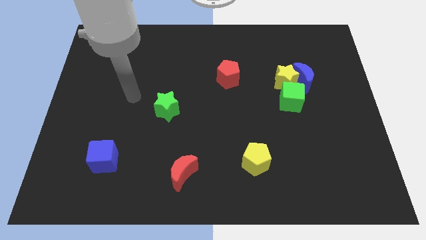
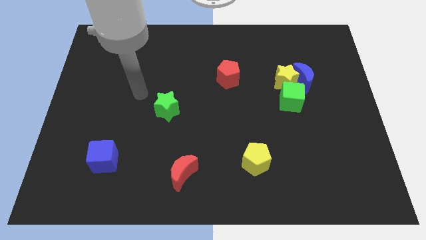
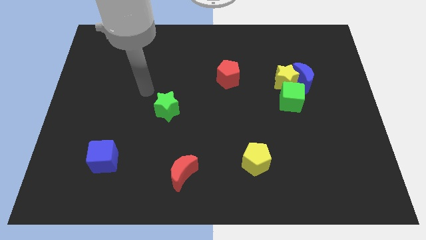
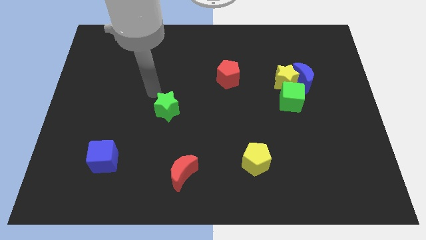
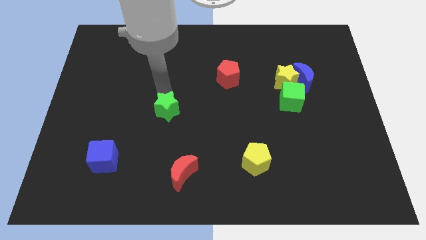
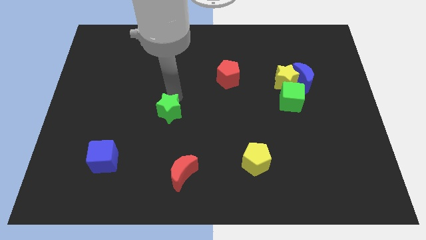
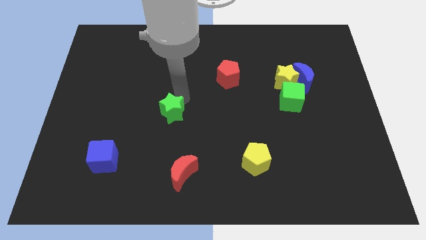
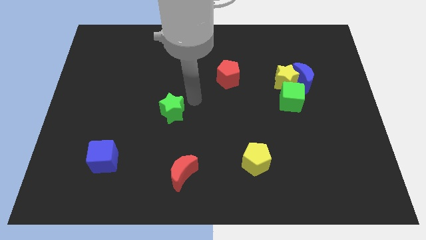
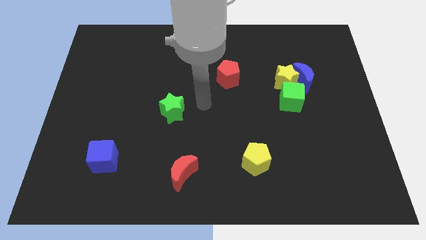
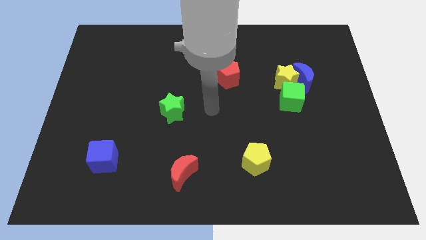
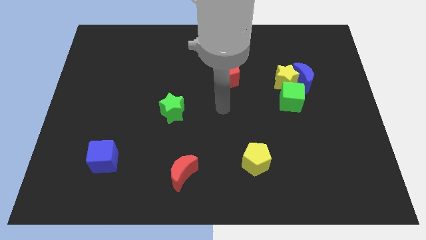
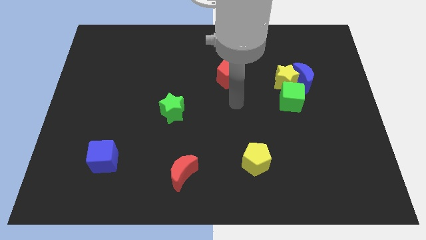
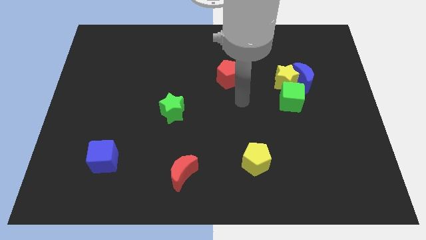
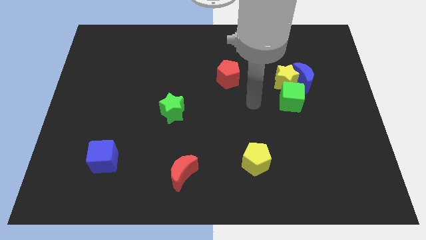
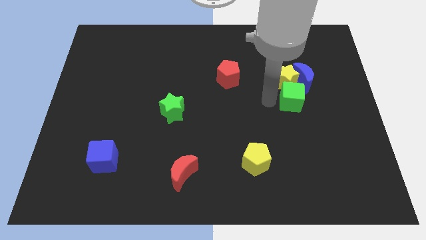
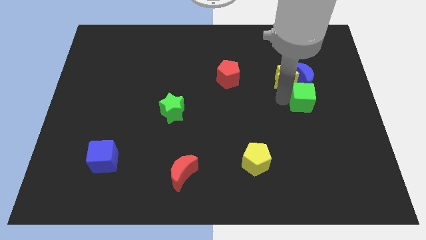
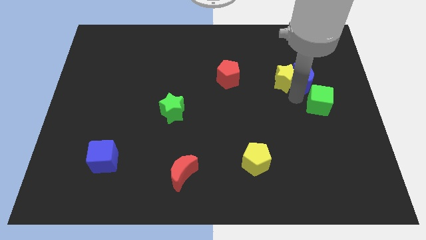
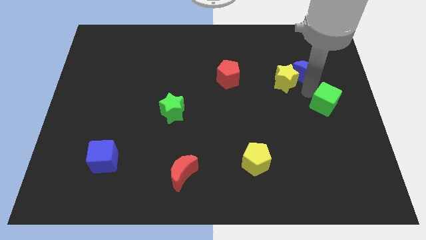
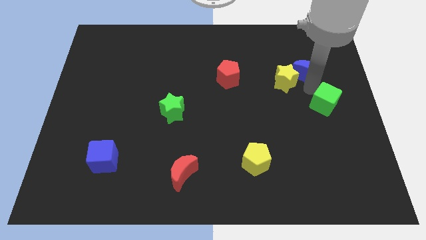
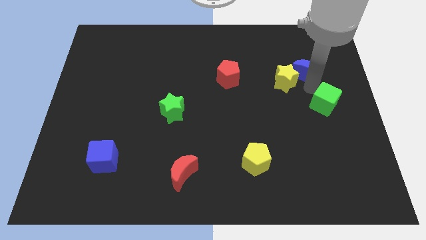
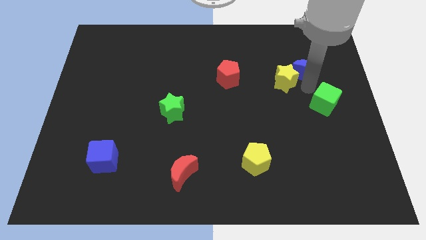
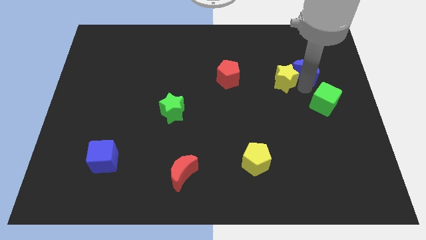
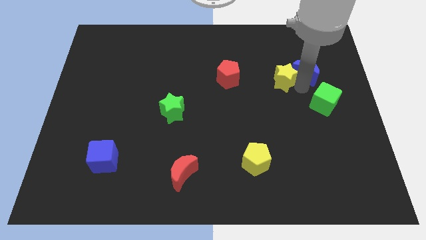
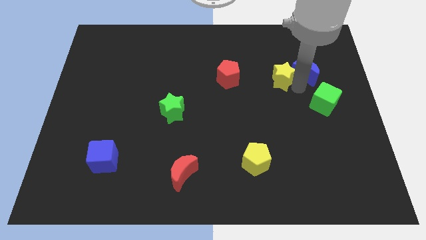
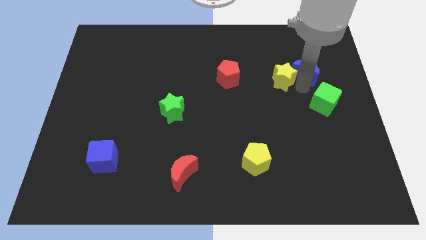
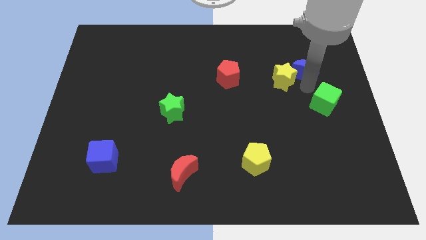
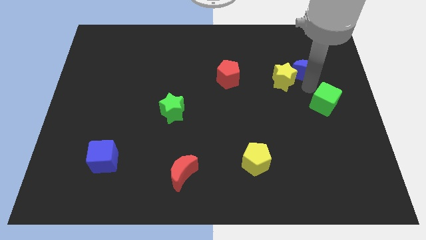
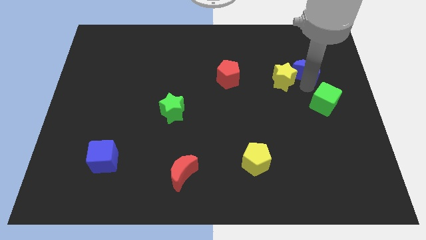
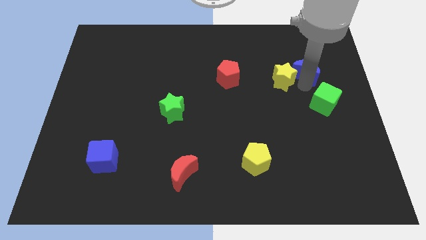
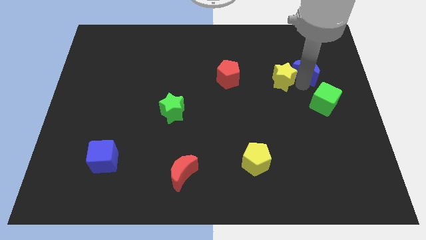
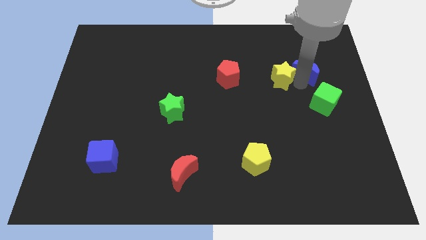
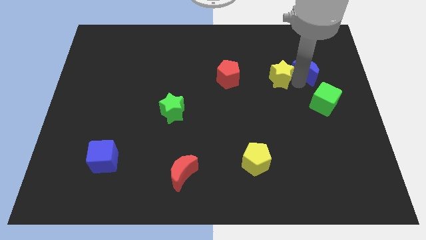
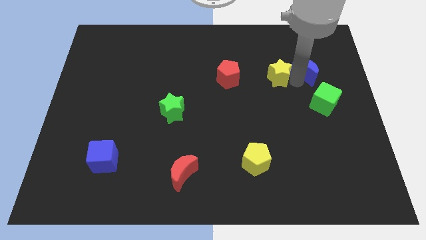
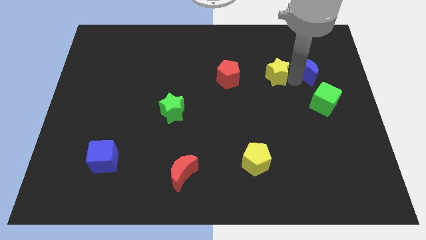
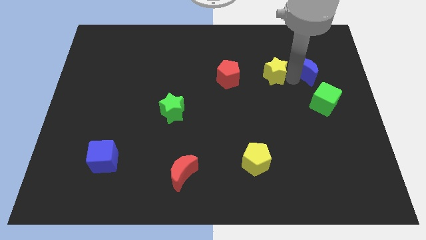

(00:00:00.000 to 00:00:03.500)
separate the yellow star from the blue moon and green cube

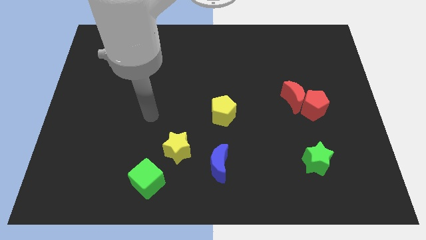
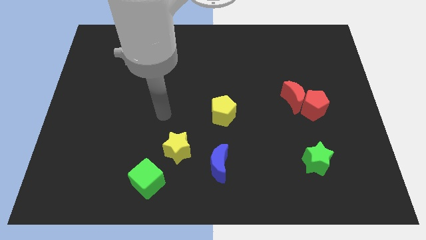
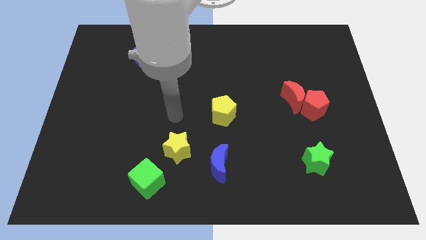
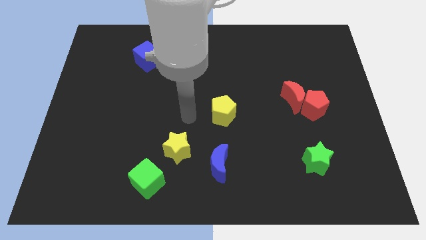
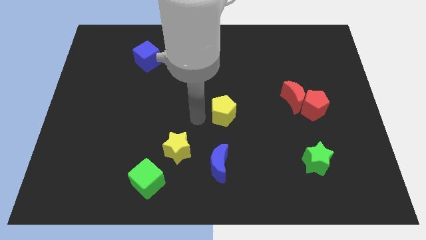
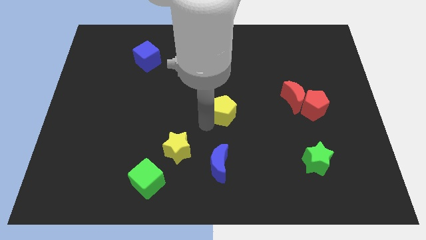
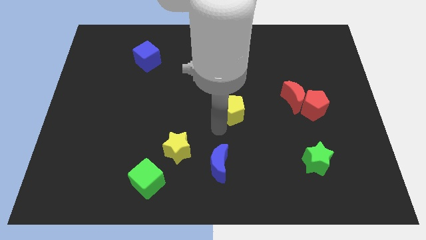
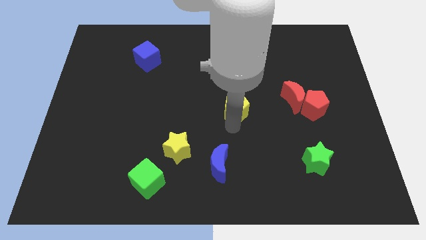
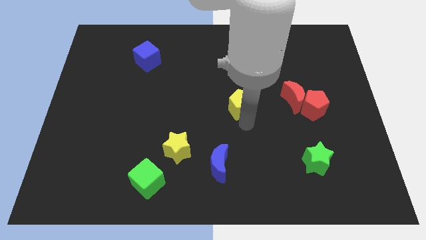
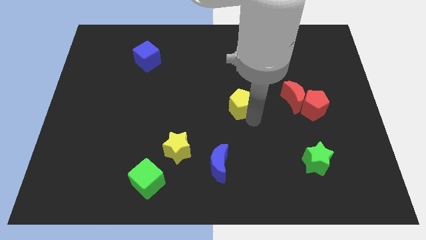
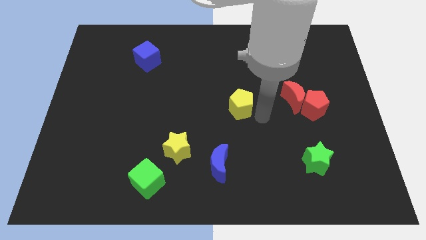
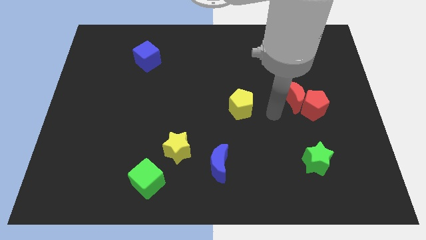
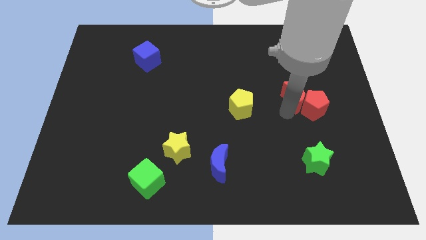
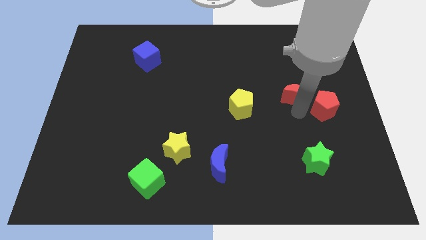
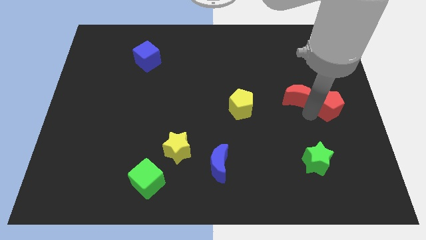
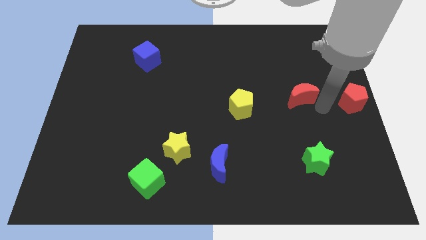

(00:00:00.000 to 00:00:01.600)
move the red moon away from the red pentagon

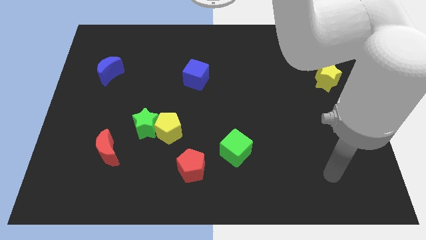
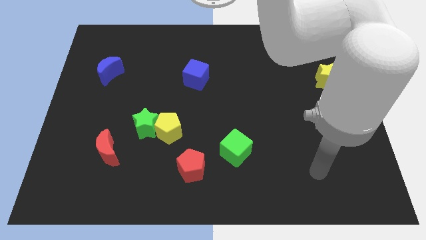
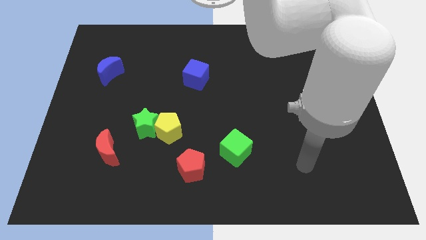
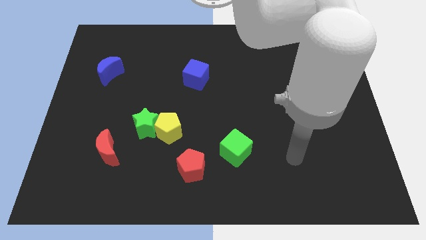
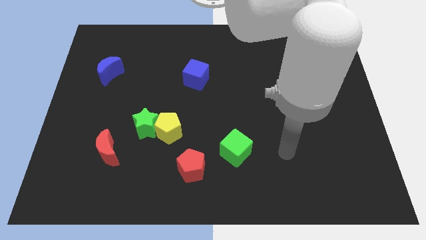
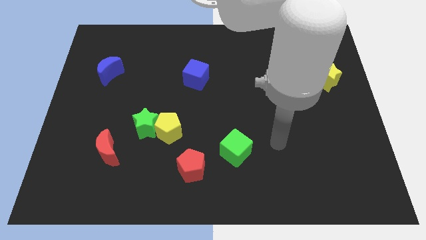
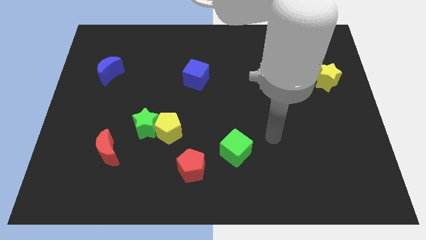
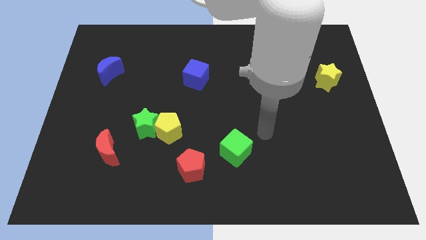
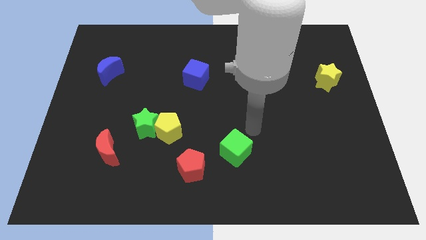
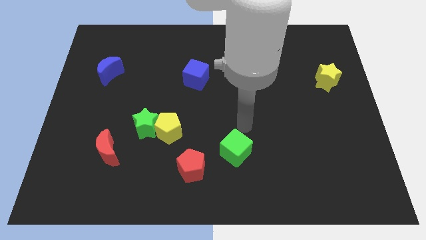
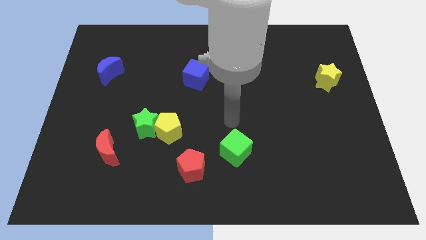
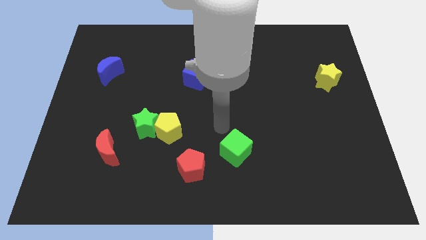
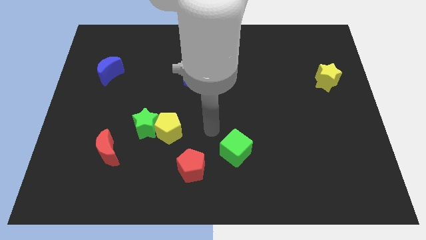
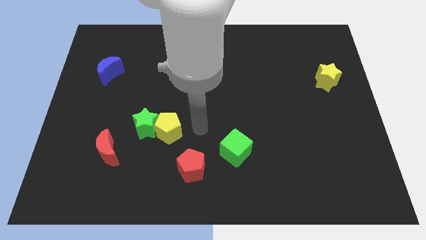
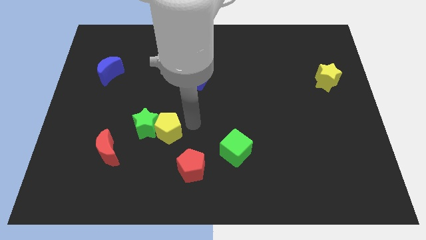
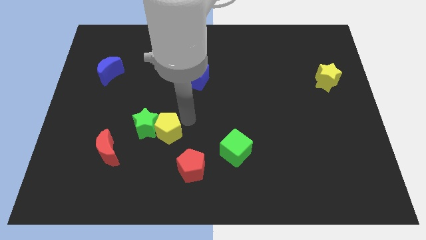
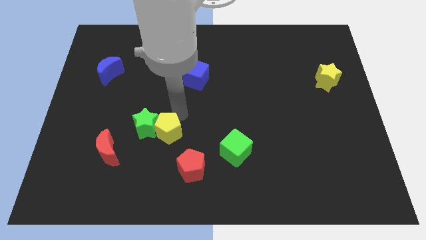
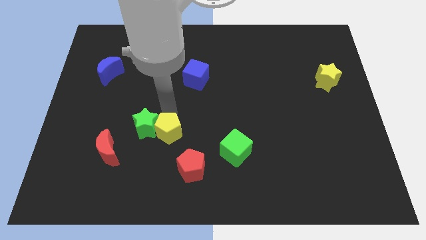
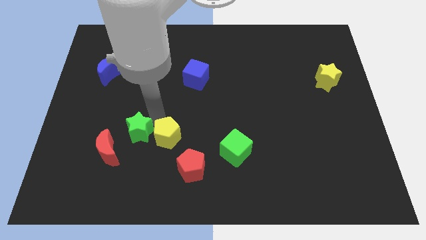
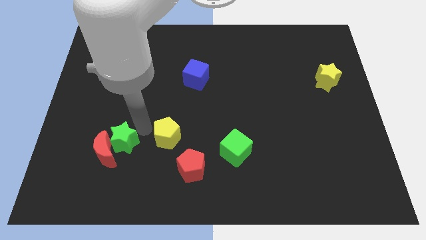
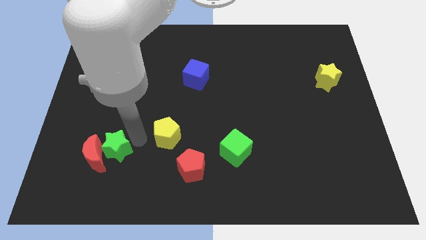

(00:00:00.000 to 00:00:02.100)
move the yellow pentagon away from the green star

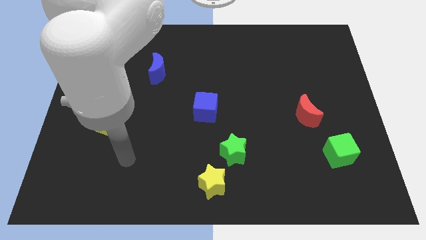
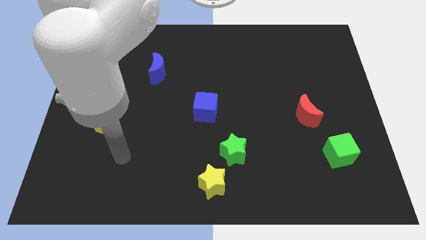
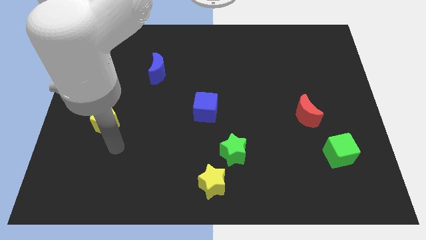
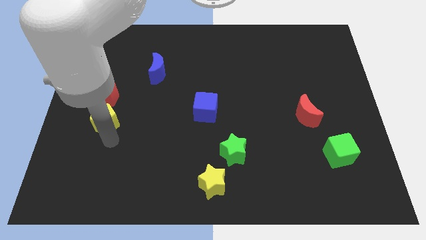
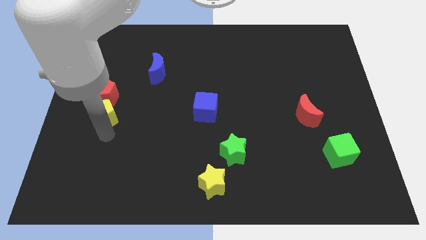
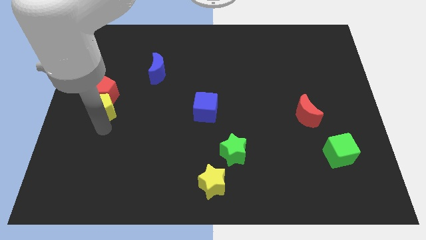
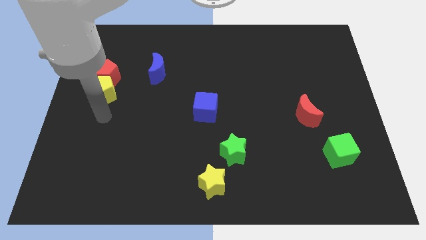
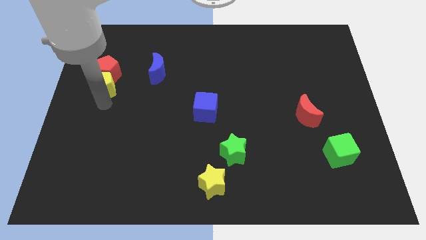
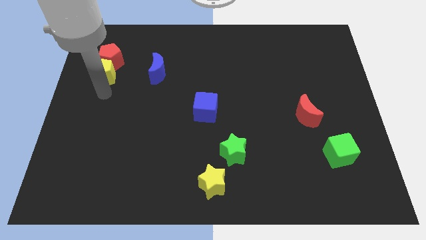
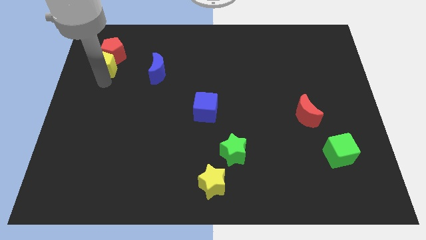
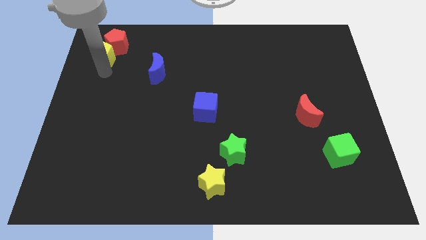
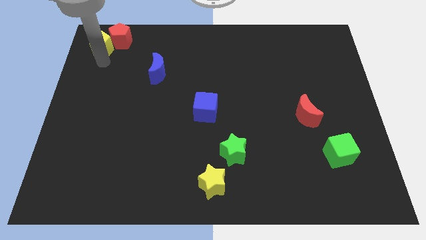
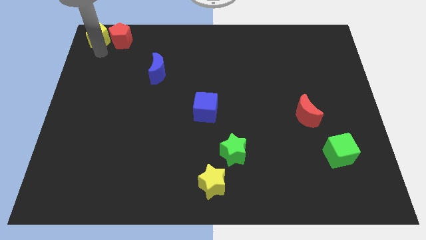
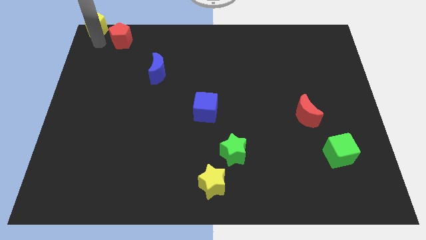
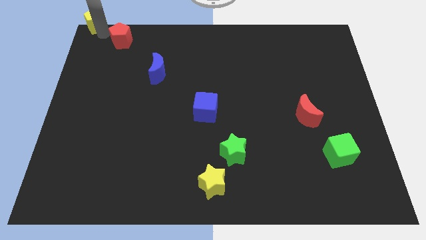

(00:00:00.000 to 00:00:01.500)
pull the red pentagon apart from the yellow pentagon

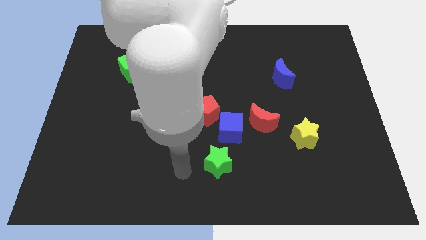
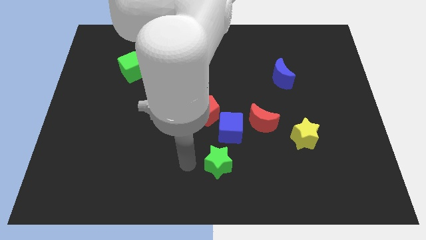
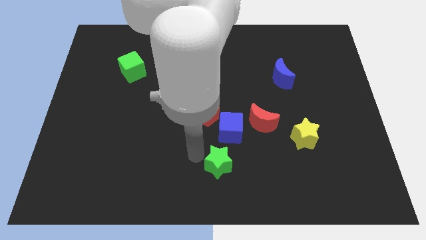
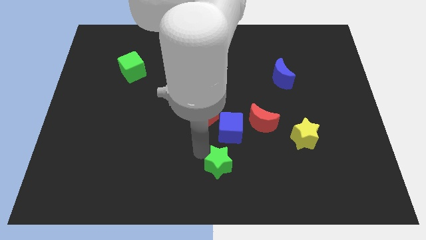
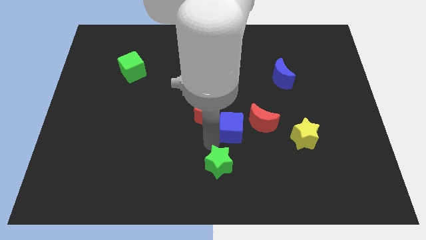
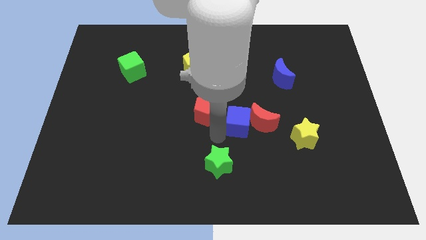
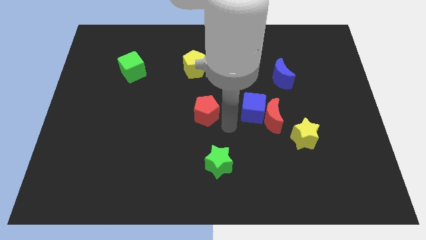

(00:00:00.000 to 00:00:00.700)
pull the red pentagon apart from the blue cube
